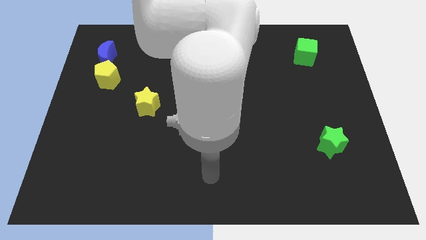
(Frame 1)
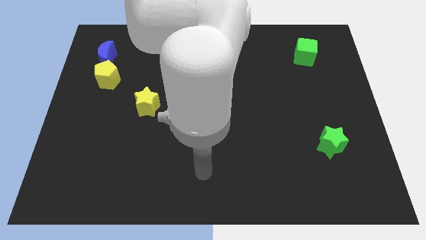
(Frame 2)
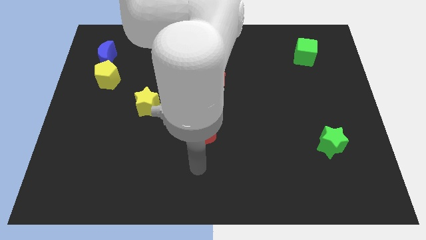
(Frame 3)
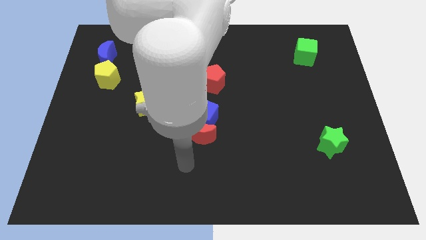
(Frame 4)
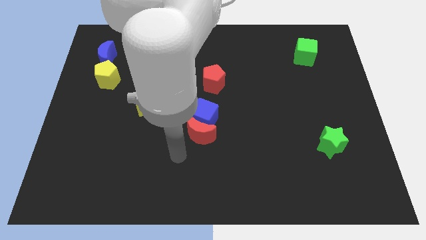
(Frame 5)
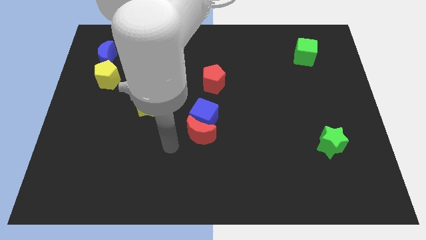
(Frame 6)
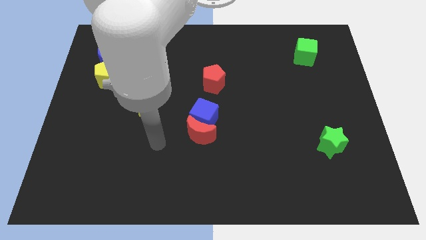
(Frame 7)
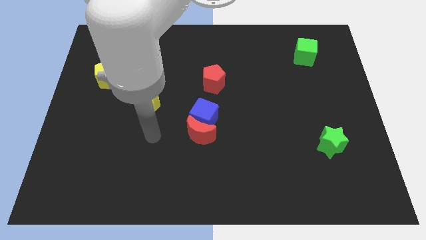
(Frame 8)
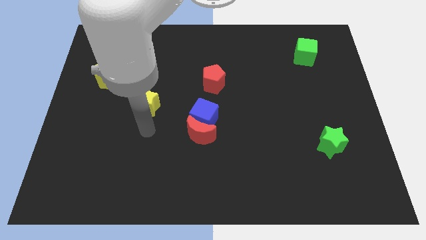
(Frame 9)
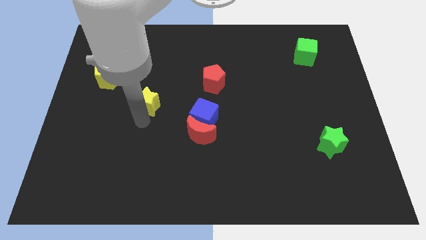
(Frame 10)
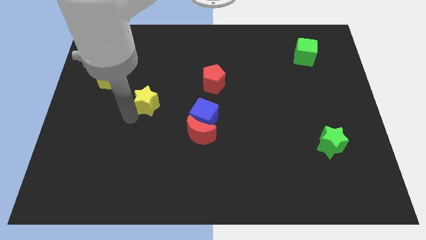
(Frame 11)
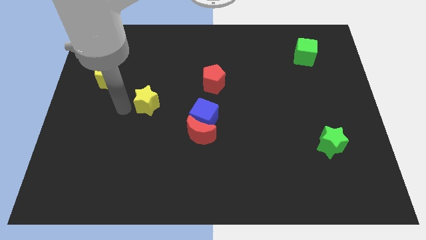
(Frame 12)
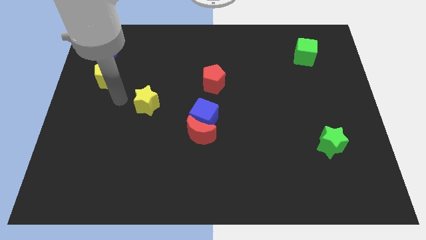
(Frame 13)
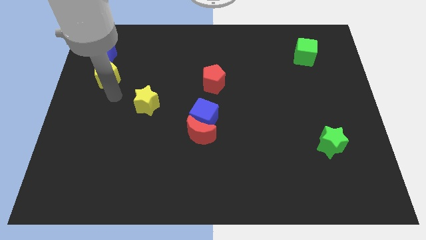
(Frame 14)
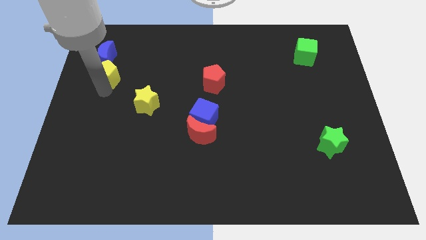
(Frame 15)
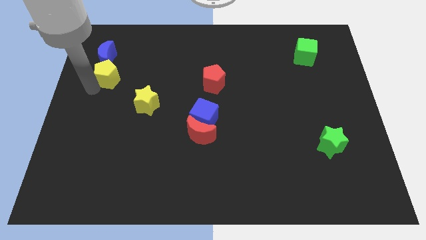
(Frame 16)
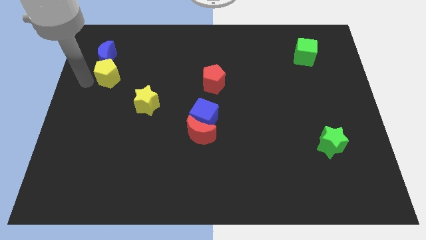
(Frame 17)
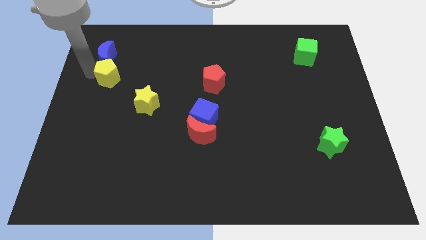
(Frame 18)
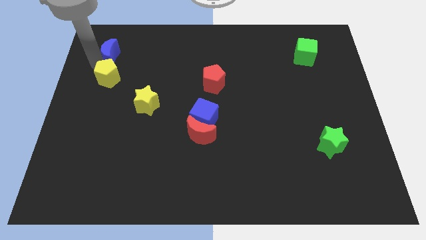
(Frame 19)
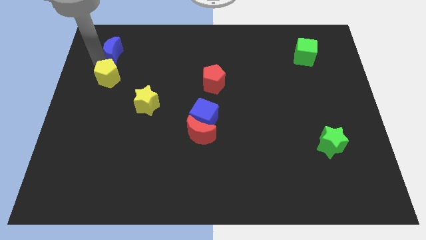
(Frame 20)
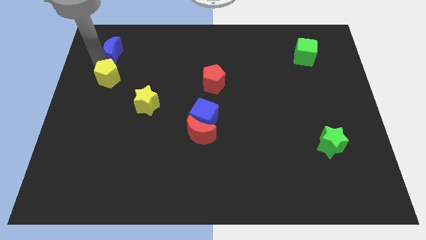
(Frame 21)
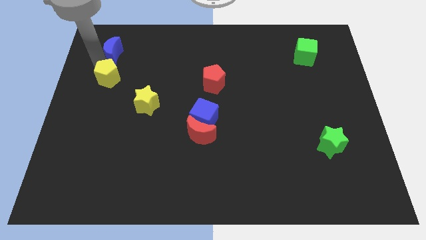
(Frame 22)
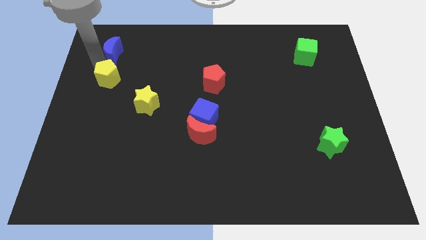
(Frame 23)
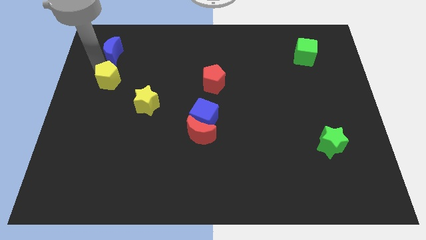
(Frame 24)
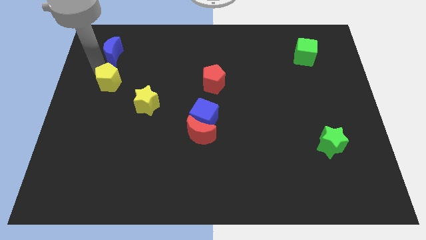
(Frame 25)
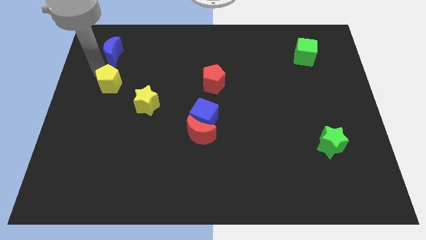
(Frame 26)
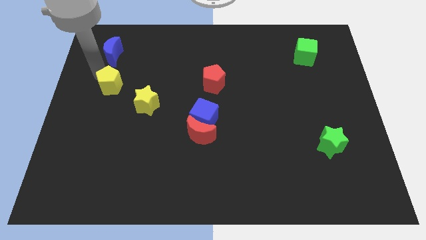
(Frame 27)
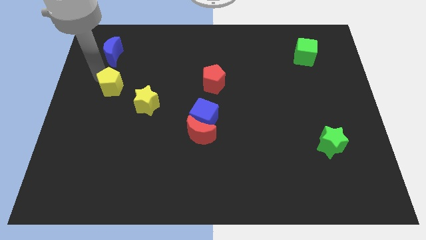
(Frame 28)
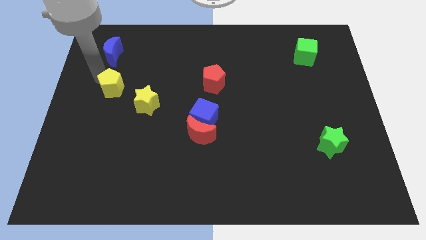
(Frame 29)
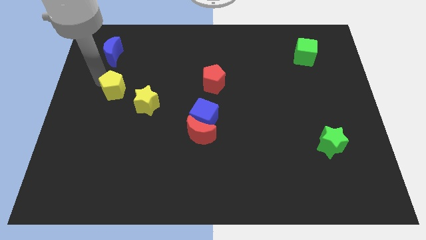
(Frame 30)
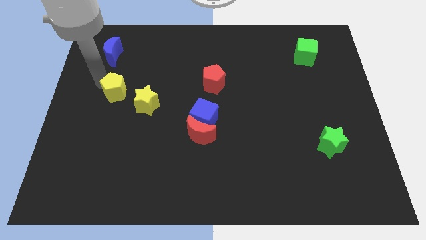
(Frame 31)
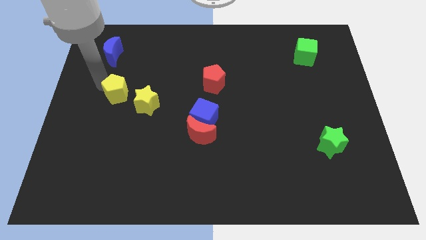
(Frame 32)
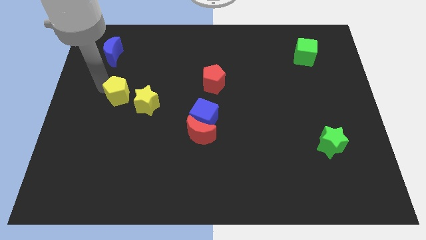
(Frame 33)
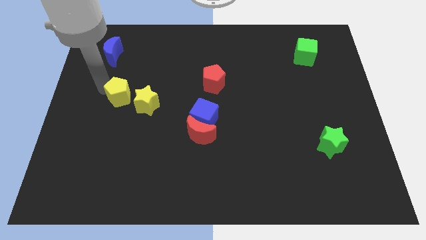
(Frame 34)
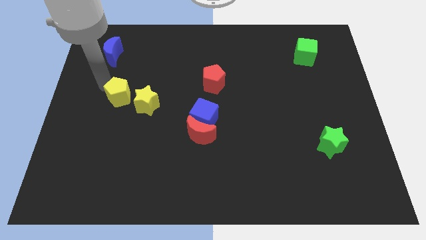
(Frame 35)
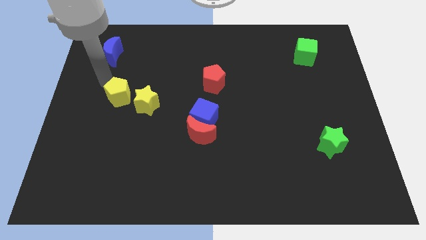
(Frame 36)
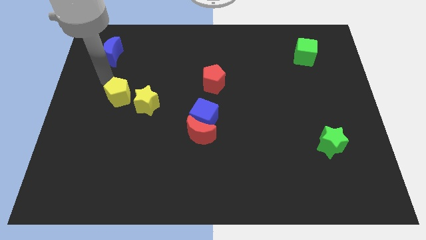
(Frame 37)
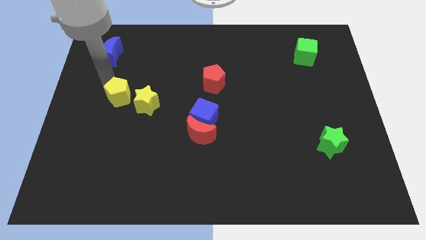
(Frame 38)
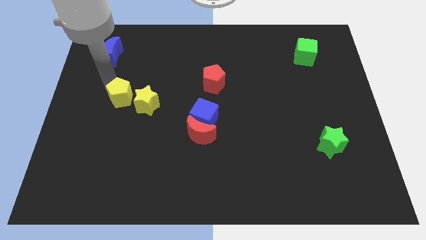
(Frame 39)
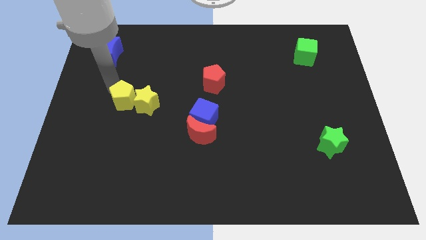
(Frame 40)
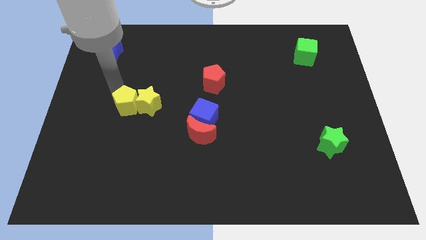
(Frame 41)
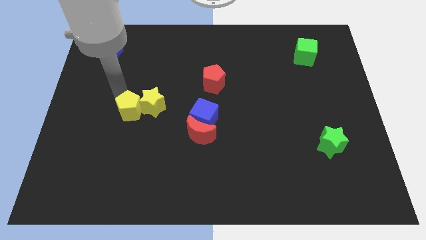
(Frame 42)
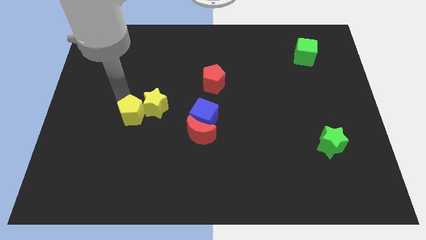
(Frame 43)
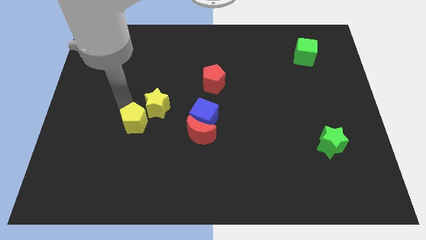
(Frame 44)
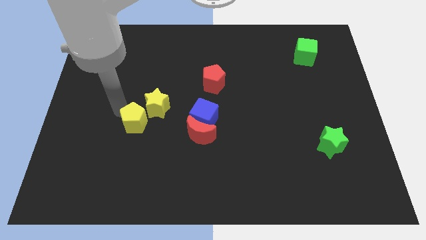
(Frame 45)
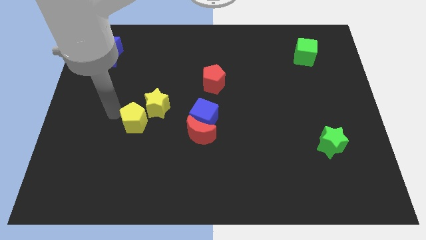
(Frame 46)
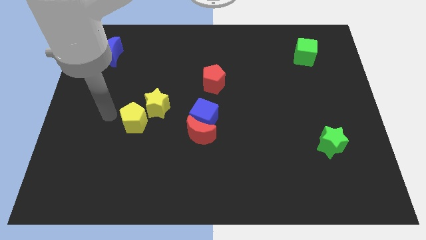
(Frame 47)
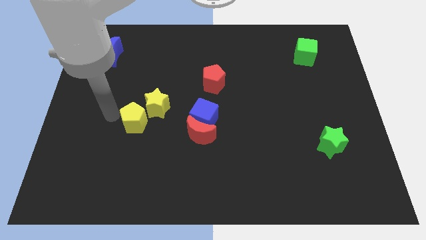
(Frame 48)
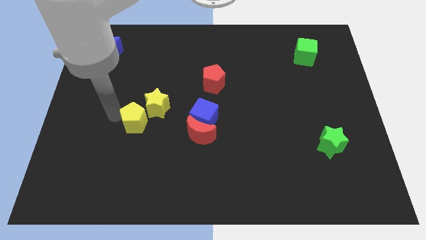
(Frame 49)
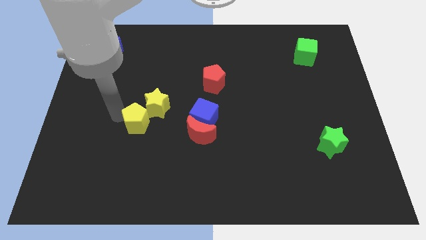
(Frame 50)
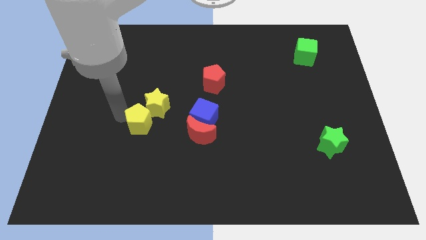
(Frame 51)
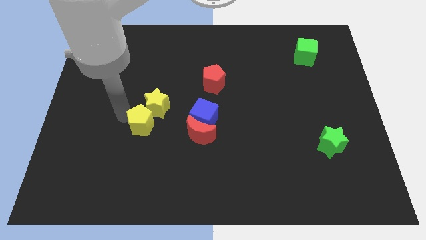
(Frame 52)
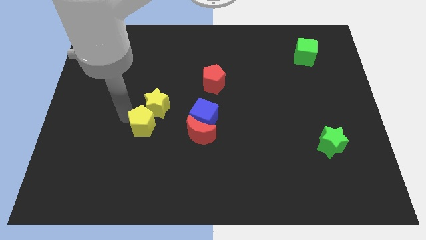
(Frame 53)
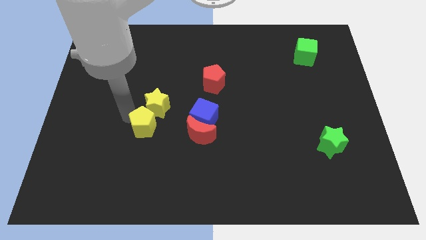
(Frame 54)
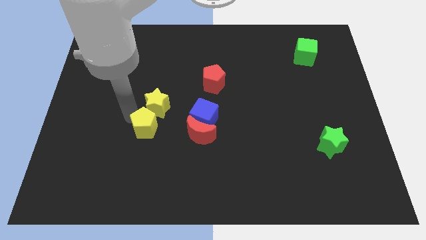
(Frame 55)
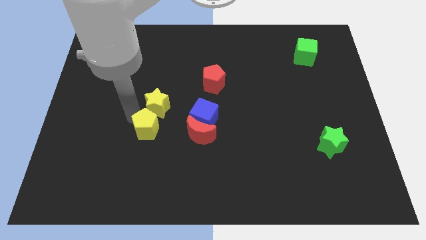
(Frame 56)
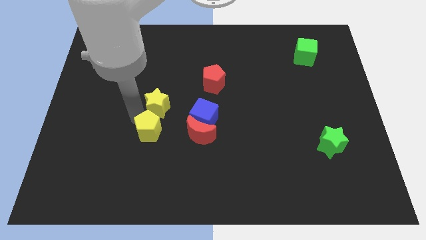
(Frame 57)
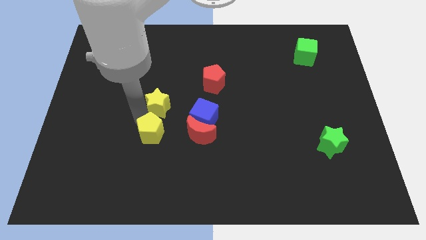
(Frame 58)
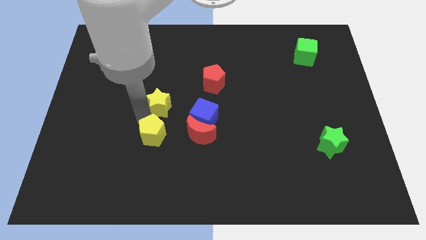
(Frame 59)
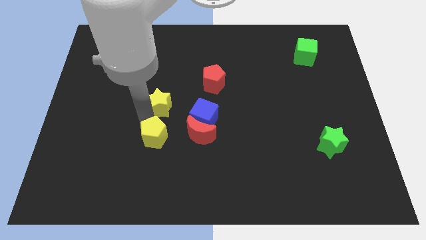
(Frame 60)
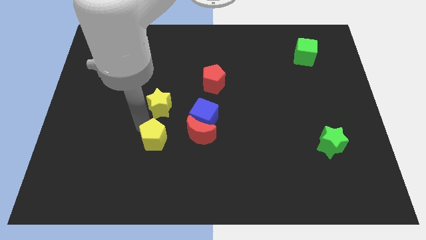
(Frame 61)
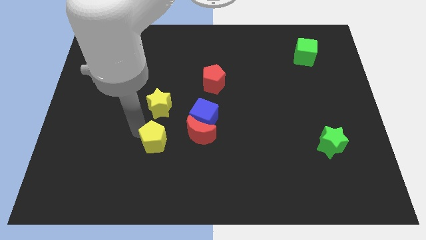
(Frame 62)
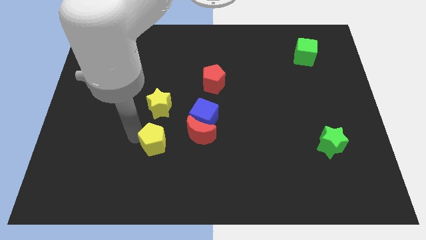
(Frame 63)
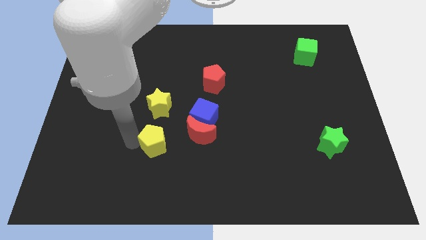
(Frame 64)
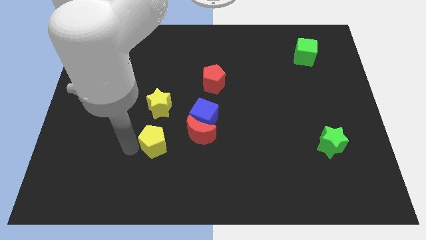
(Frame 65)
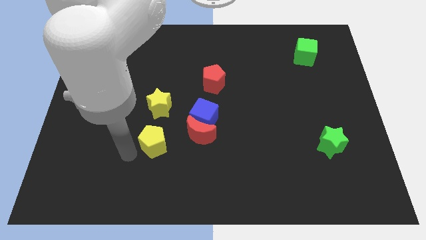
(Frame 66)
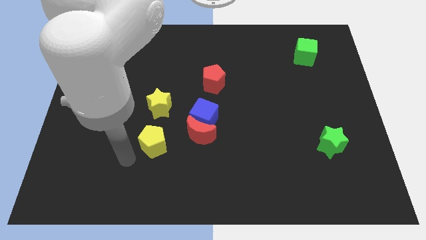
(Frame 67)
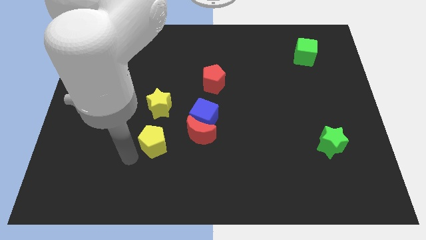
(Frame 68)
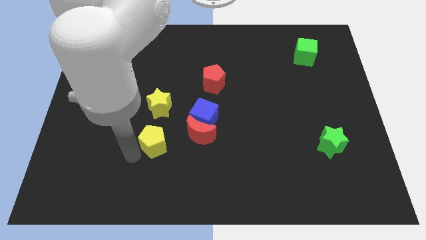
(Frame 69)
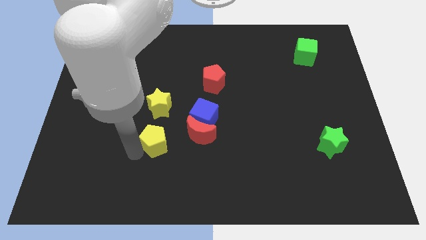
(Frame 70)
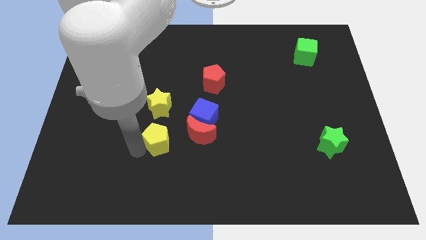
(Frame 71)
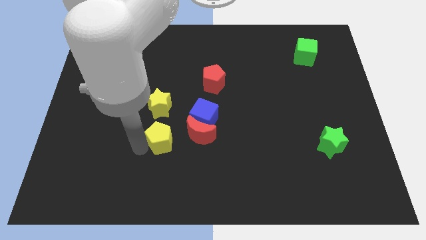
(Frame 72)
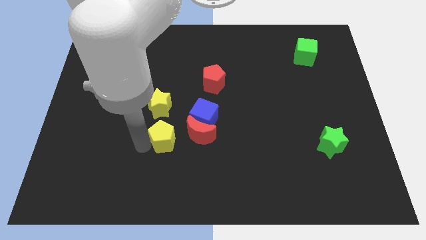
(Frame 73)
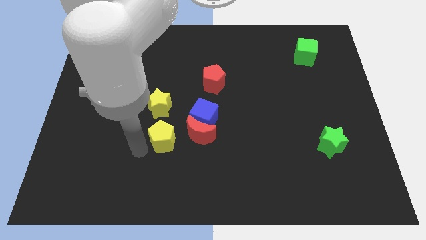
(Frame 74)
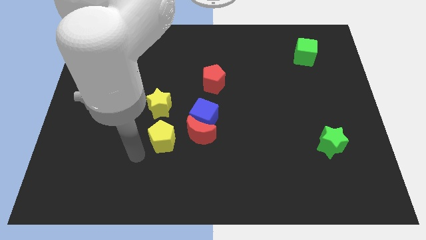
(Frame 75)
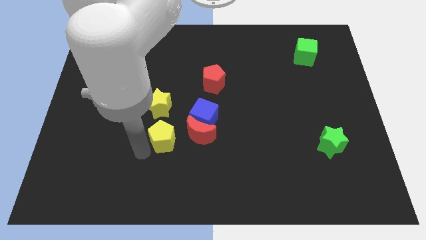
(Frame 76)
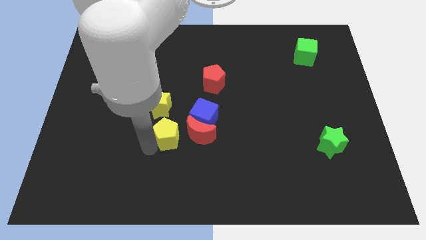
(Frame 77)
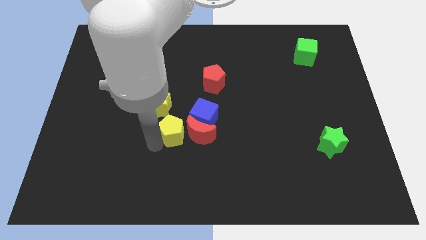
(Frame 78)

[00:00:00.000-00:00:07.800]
move the yellow pentagon next to the red moon
